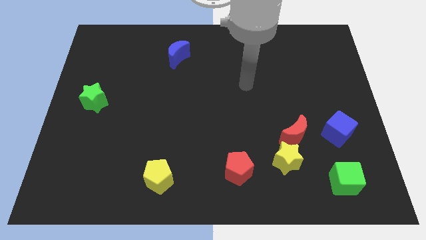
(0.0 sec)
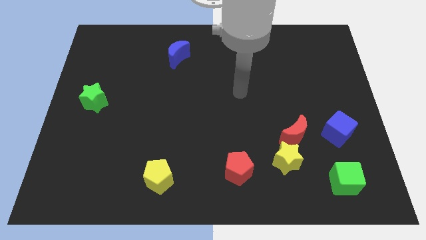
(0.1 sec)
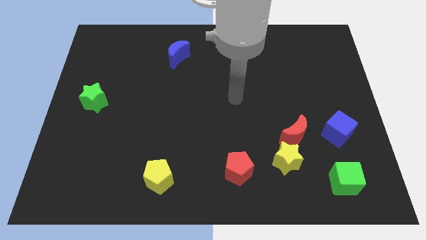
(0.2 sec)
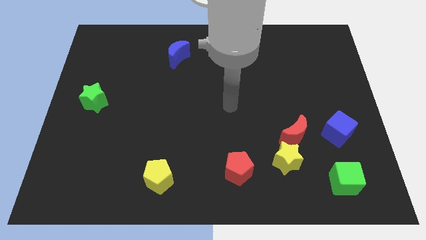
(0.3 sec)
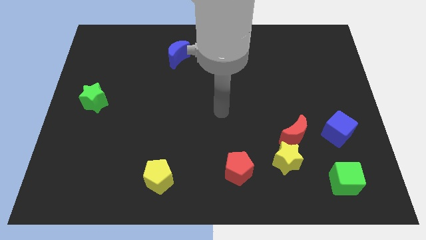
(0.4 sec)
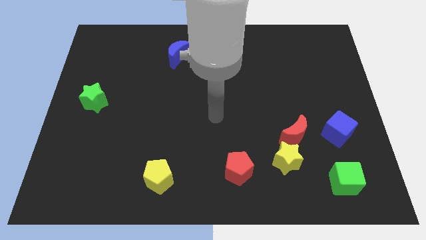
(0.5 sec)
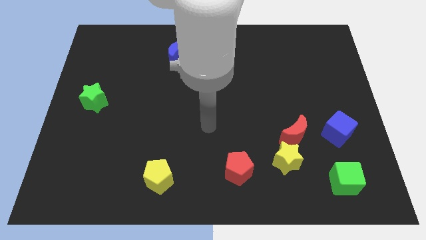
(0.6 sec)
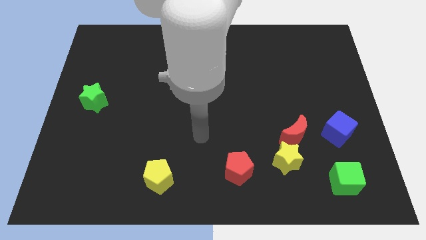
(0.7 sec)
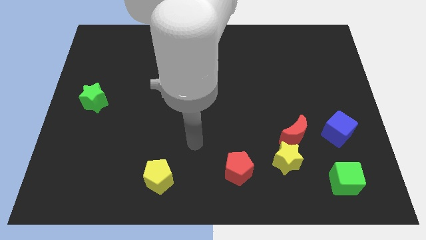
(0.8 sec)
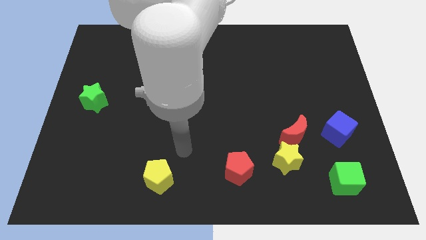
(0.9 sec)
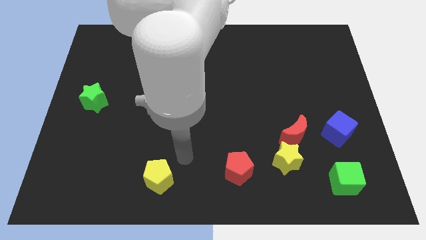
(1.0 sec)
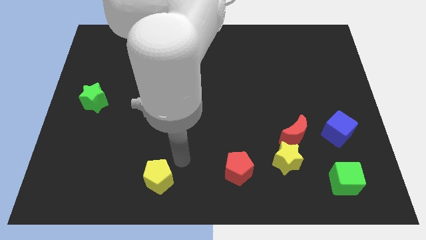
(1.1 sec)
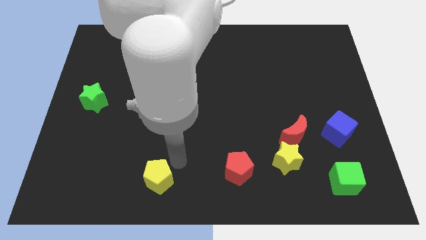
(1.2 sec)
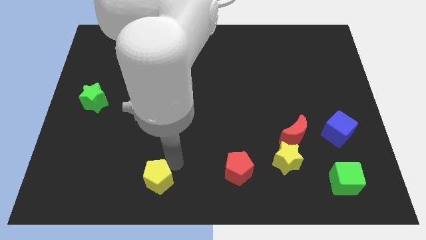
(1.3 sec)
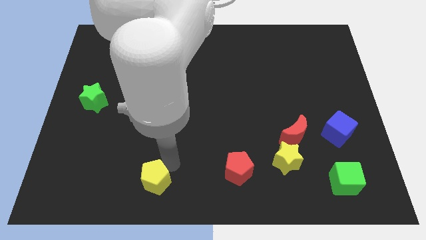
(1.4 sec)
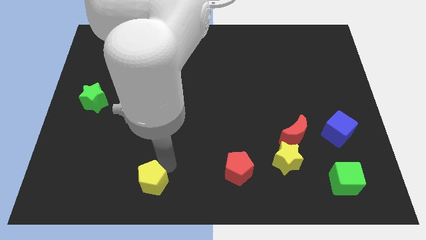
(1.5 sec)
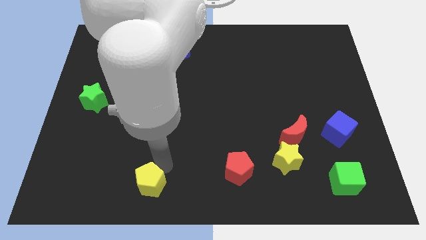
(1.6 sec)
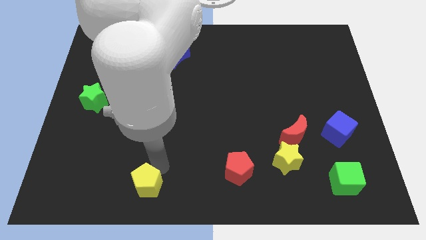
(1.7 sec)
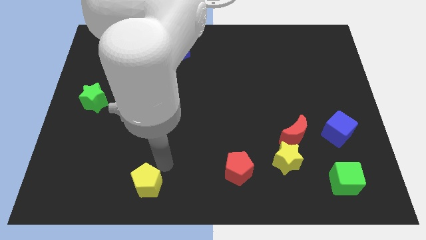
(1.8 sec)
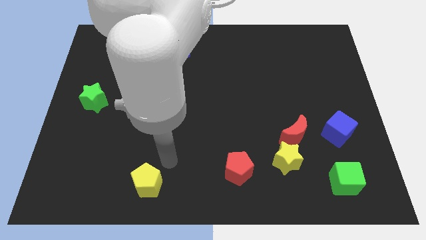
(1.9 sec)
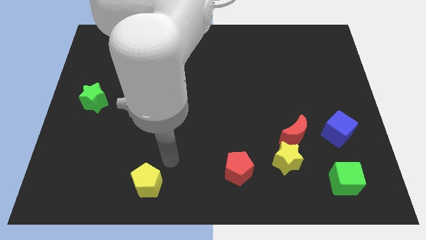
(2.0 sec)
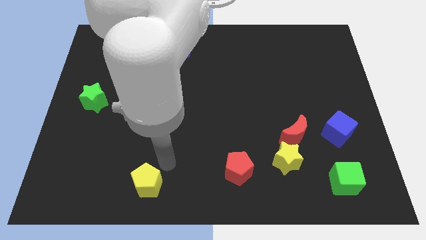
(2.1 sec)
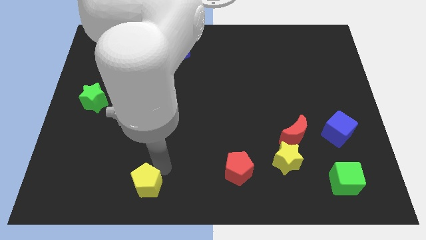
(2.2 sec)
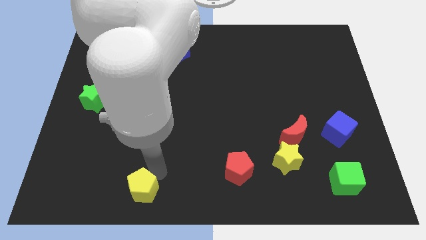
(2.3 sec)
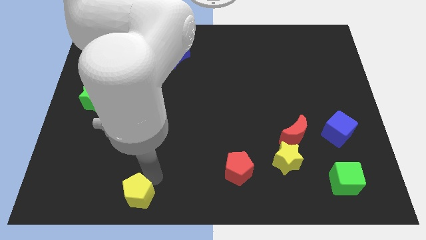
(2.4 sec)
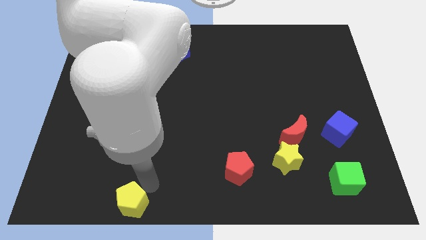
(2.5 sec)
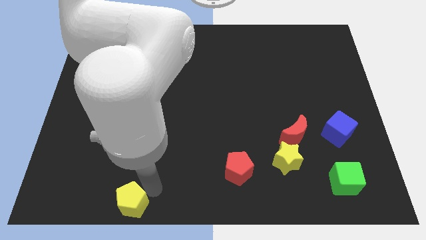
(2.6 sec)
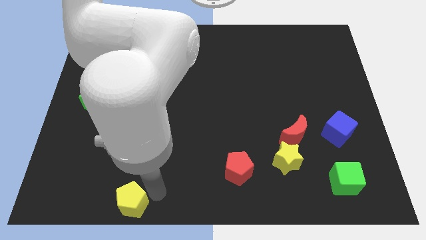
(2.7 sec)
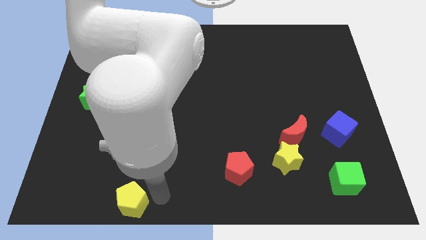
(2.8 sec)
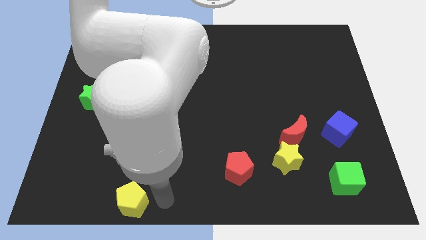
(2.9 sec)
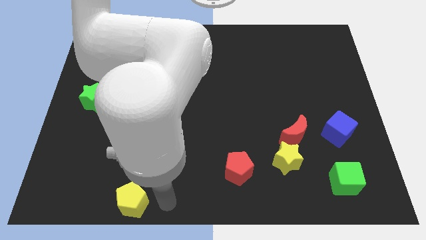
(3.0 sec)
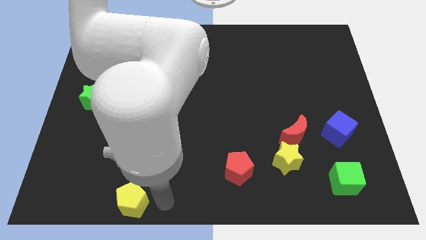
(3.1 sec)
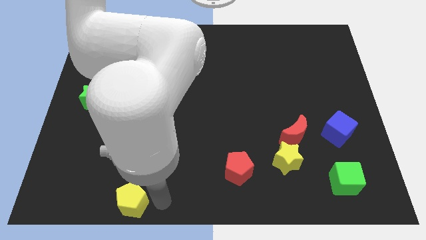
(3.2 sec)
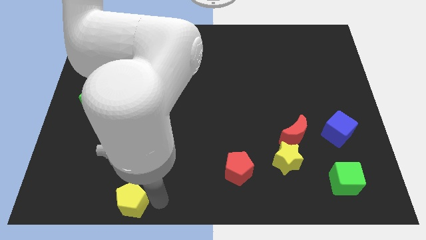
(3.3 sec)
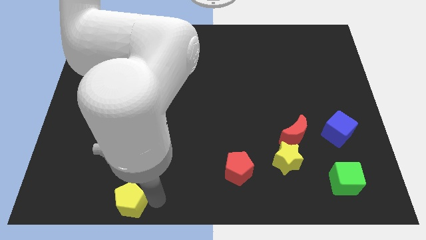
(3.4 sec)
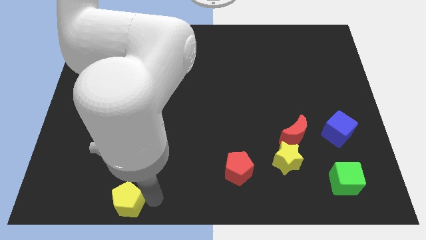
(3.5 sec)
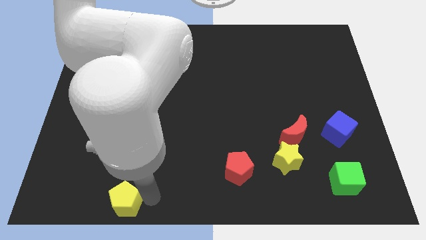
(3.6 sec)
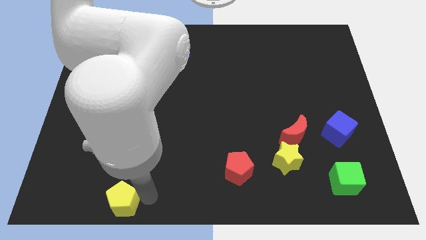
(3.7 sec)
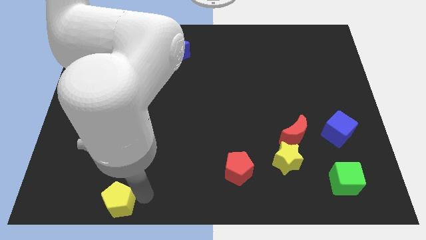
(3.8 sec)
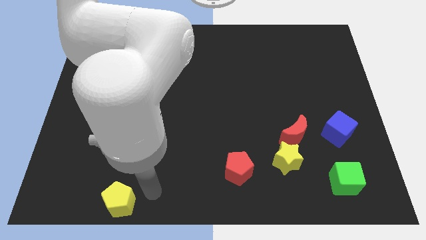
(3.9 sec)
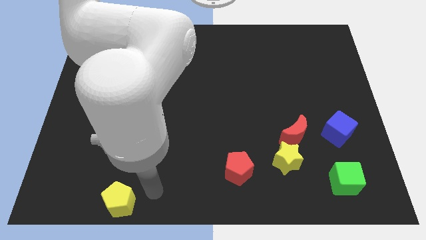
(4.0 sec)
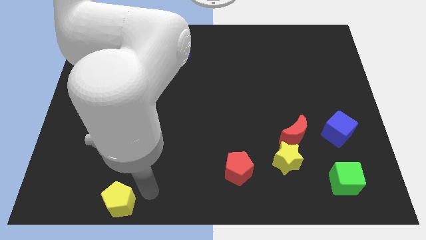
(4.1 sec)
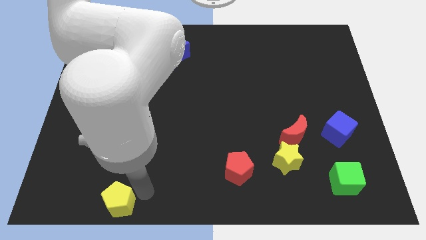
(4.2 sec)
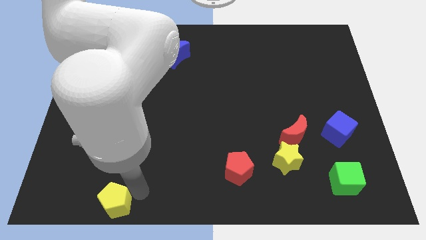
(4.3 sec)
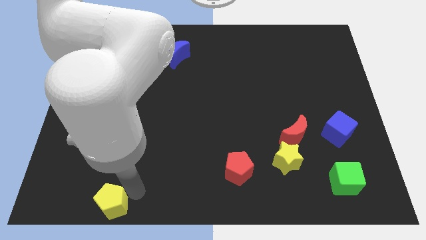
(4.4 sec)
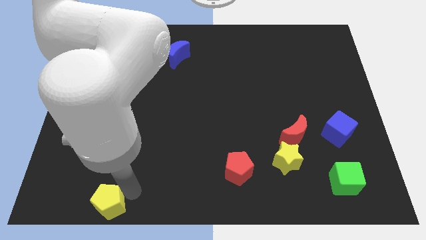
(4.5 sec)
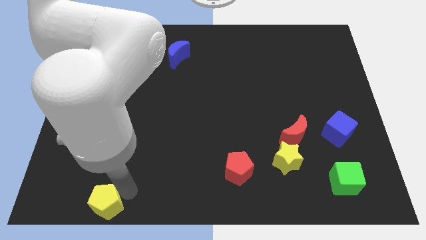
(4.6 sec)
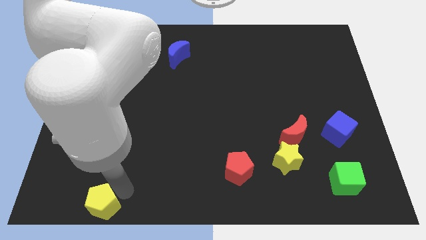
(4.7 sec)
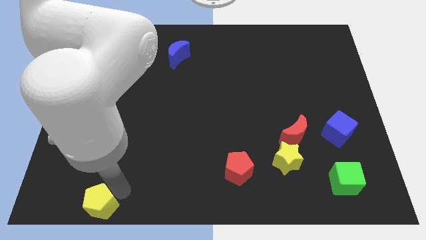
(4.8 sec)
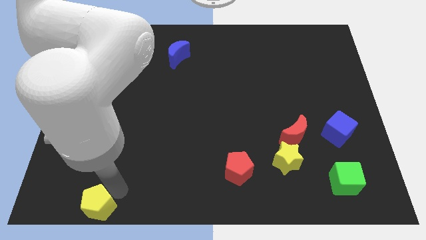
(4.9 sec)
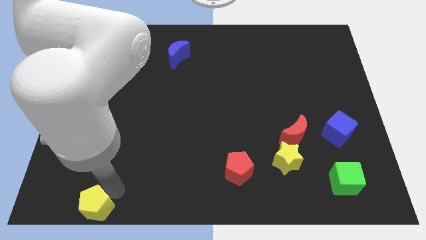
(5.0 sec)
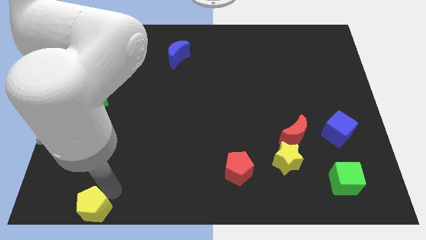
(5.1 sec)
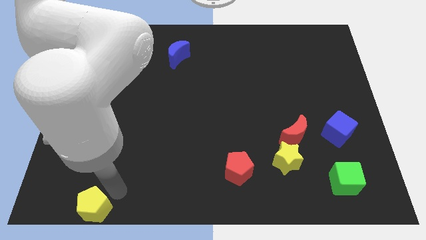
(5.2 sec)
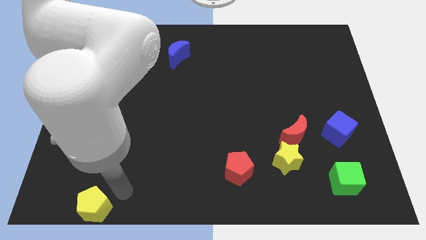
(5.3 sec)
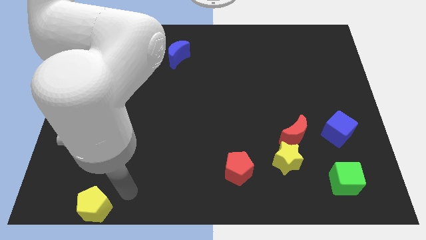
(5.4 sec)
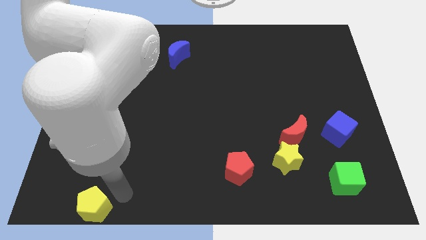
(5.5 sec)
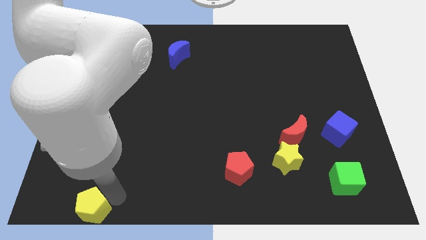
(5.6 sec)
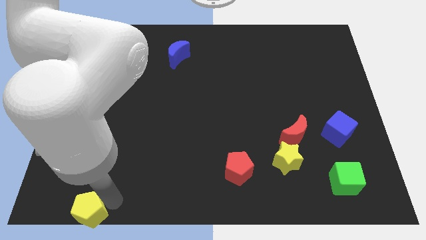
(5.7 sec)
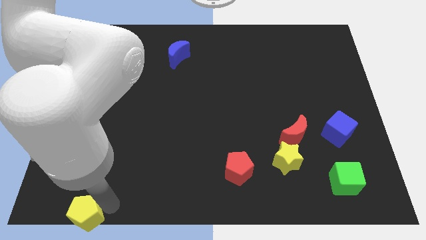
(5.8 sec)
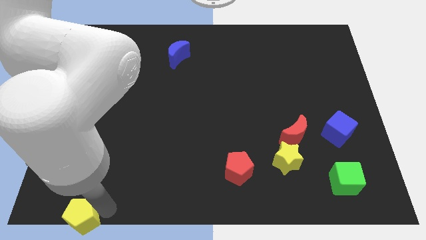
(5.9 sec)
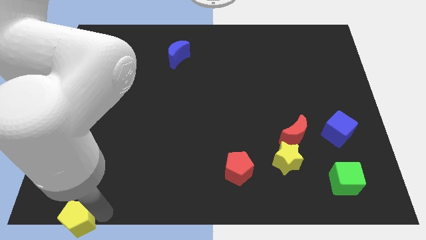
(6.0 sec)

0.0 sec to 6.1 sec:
slide the yellow pentagon to the lower left corner

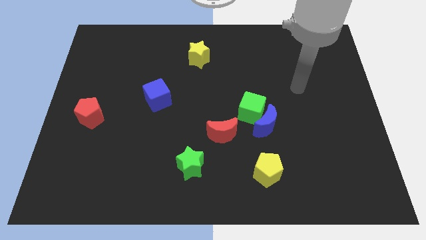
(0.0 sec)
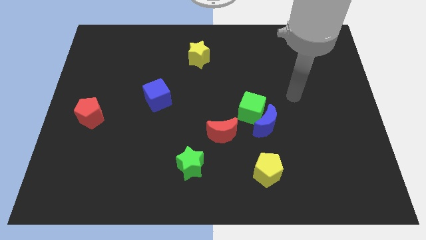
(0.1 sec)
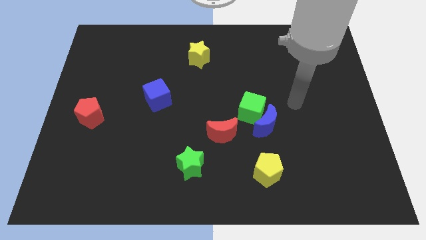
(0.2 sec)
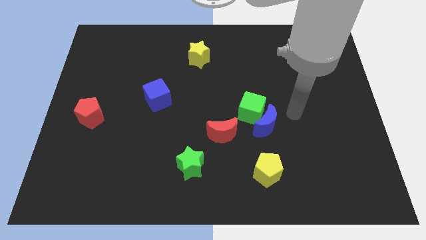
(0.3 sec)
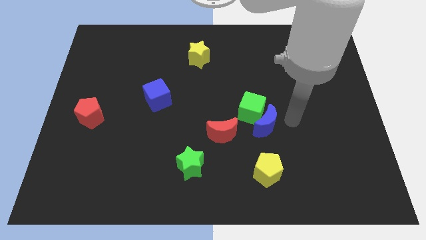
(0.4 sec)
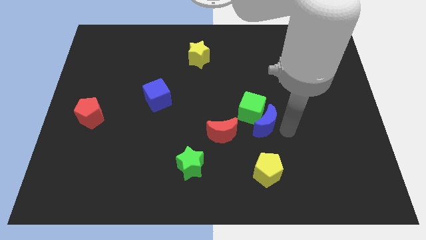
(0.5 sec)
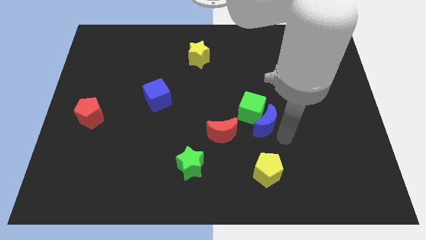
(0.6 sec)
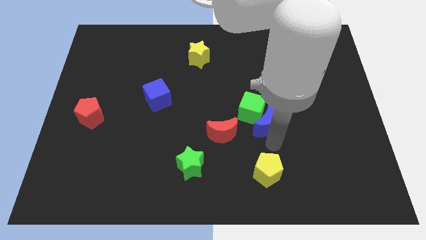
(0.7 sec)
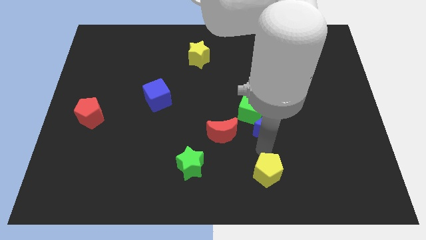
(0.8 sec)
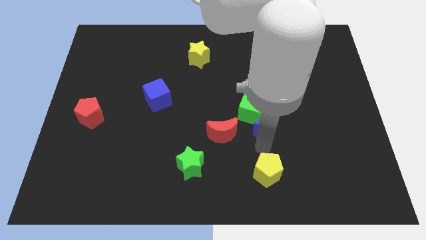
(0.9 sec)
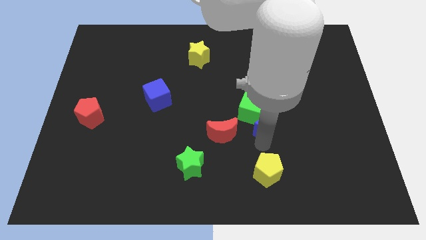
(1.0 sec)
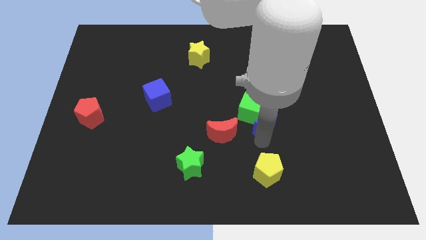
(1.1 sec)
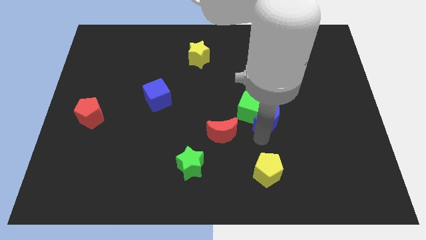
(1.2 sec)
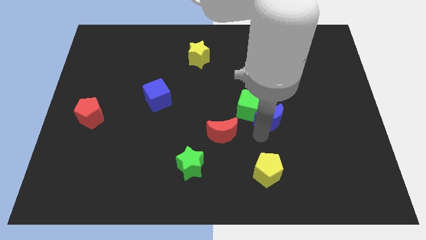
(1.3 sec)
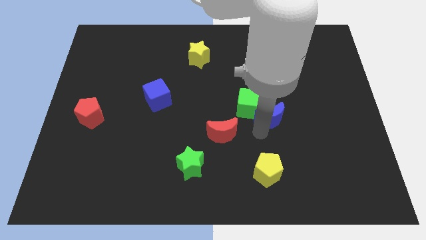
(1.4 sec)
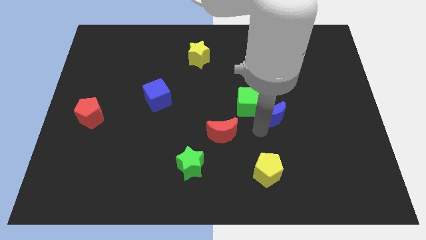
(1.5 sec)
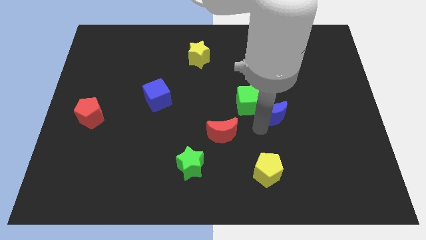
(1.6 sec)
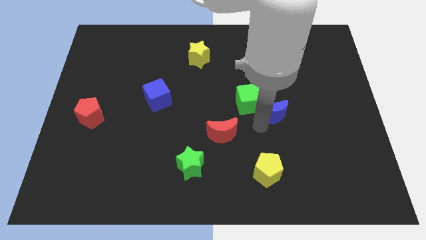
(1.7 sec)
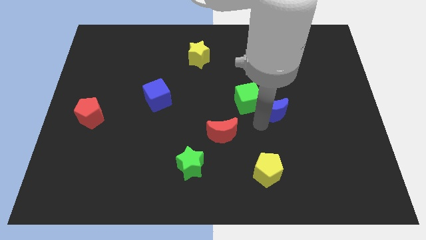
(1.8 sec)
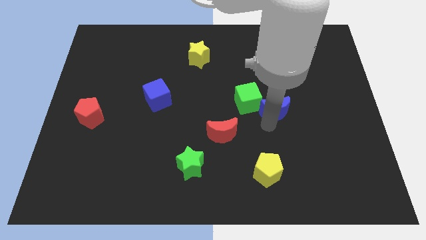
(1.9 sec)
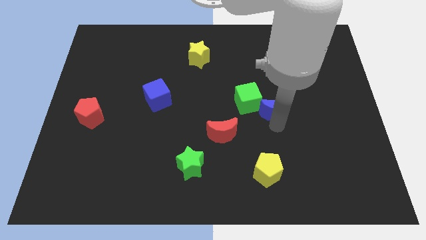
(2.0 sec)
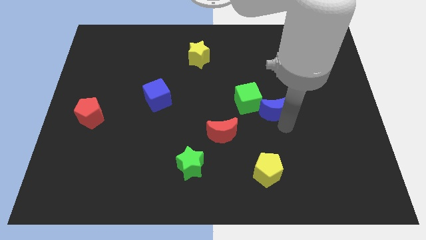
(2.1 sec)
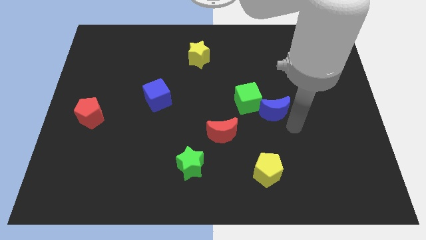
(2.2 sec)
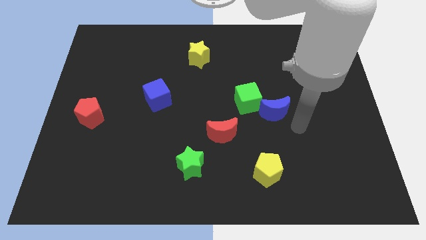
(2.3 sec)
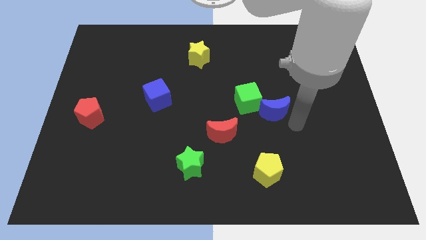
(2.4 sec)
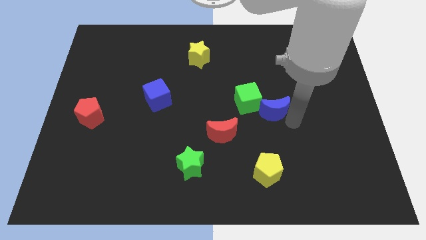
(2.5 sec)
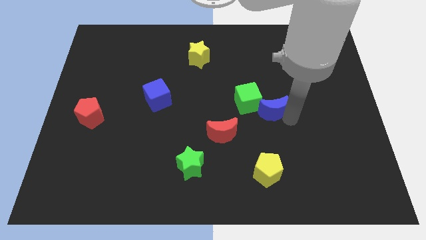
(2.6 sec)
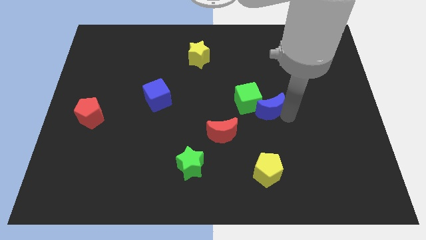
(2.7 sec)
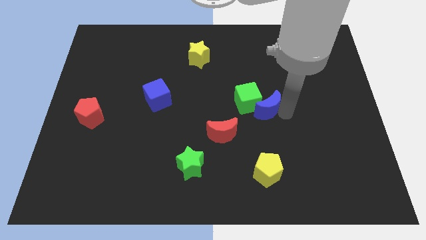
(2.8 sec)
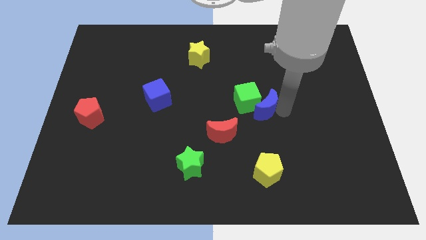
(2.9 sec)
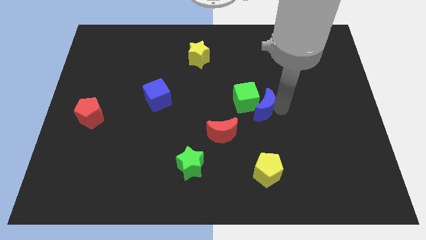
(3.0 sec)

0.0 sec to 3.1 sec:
push the blue moon to the middle
